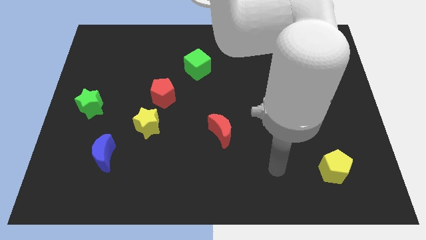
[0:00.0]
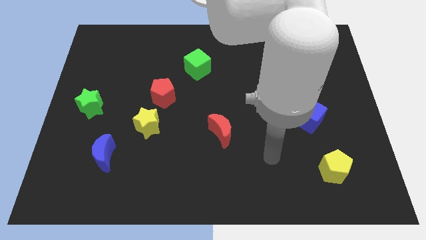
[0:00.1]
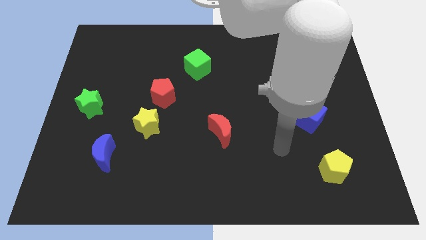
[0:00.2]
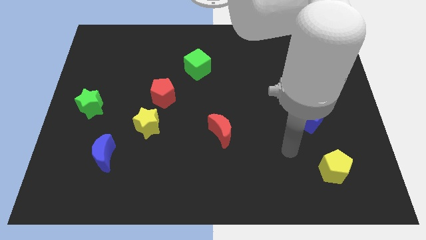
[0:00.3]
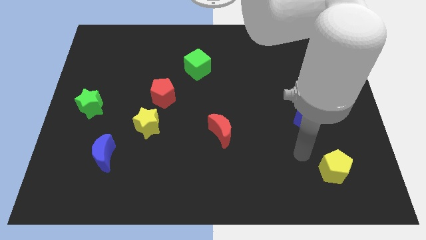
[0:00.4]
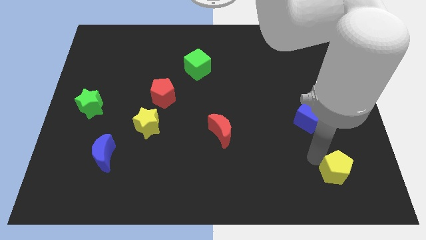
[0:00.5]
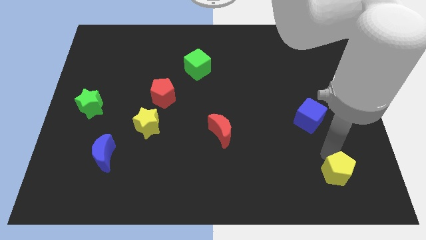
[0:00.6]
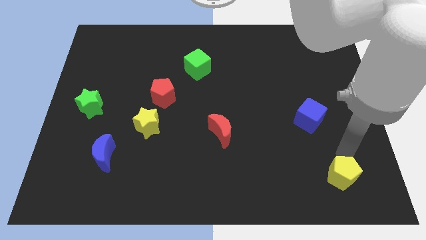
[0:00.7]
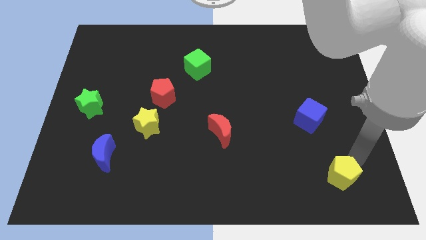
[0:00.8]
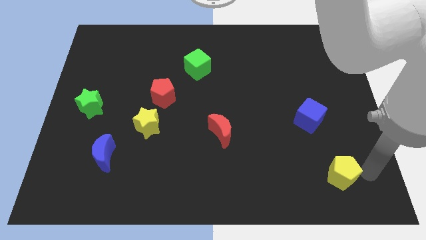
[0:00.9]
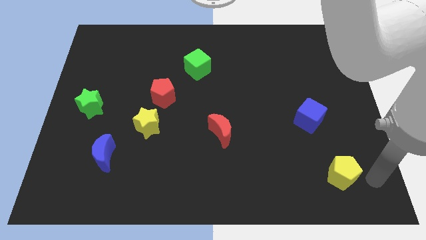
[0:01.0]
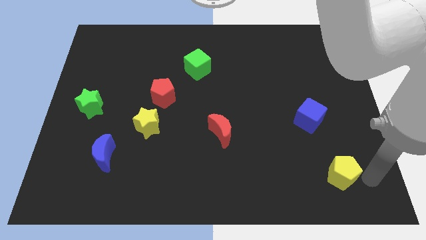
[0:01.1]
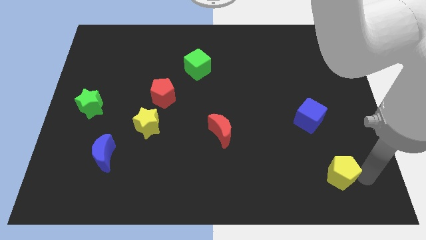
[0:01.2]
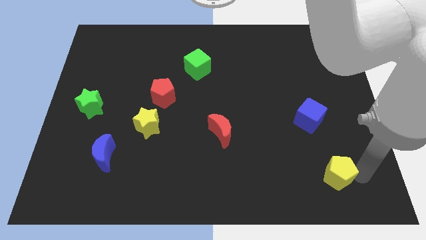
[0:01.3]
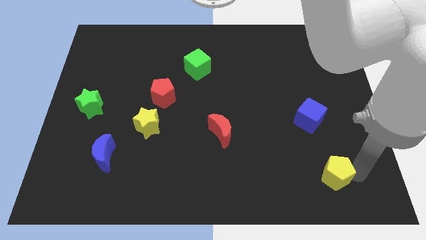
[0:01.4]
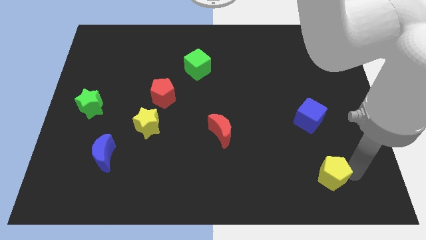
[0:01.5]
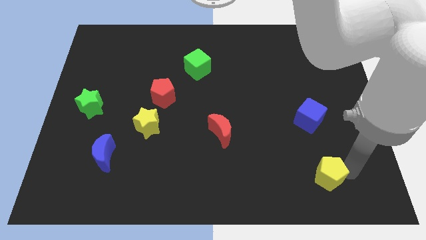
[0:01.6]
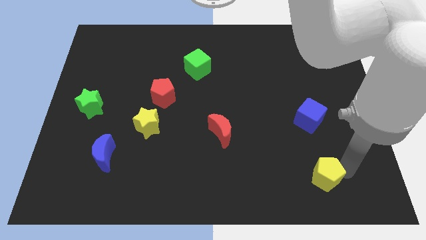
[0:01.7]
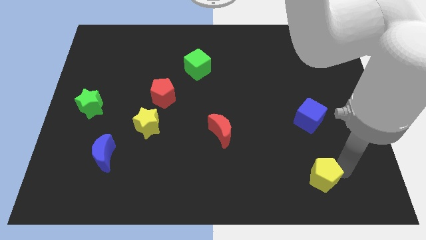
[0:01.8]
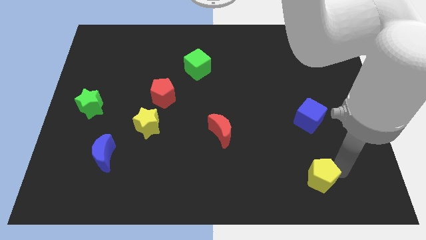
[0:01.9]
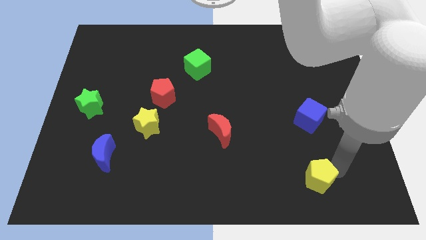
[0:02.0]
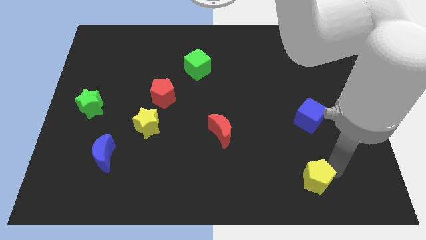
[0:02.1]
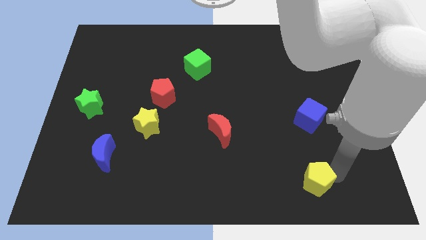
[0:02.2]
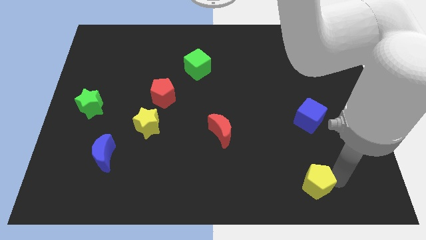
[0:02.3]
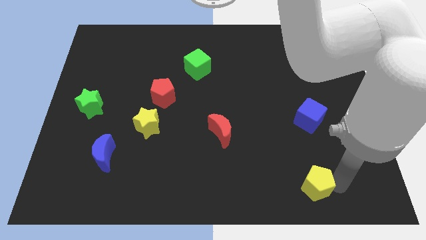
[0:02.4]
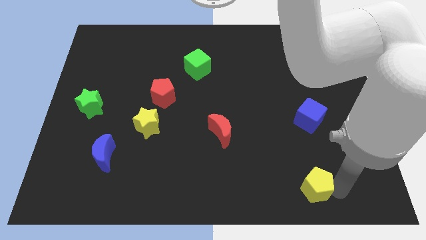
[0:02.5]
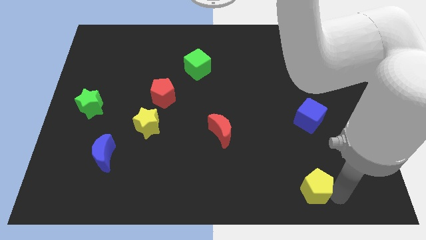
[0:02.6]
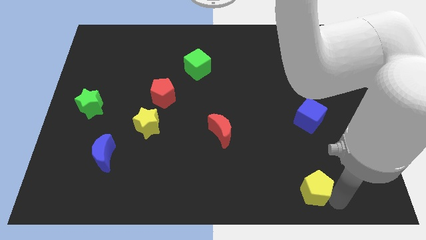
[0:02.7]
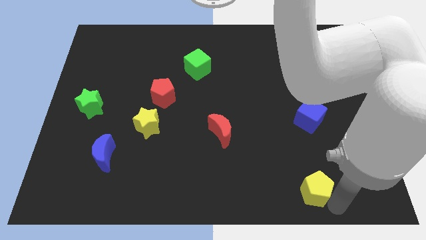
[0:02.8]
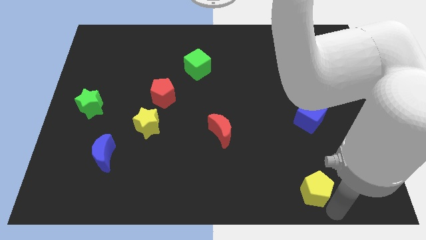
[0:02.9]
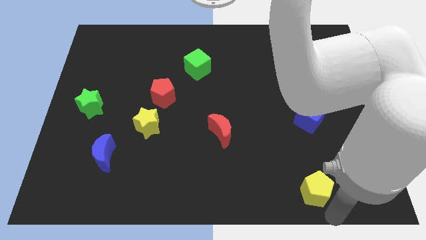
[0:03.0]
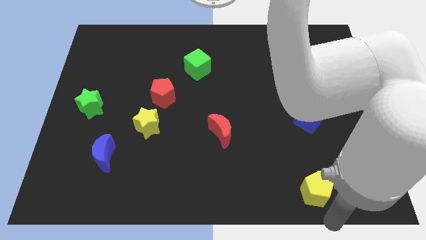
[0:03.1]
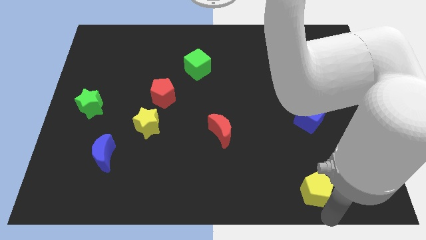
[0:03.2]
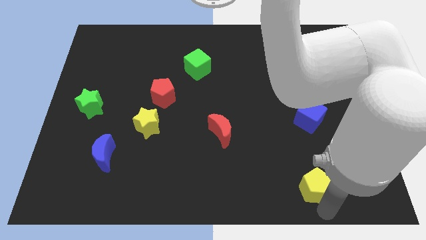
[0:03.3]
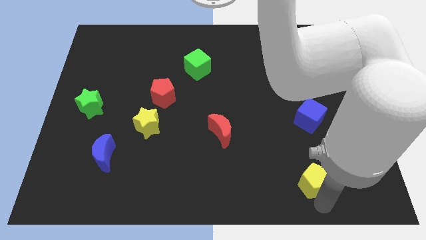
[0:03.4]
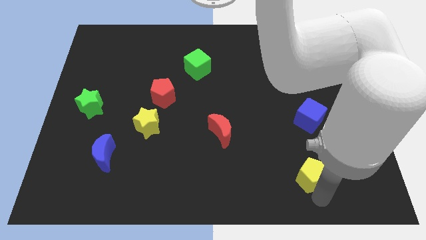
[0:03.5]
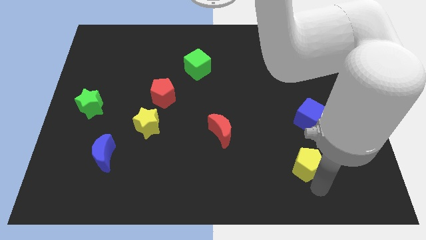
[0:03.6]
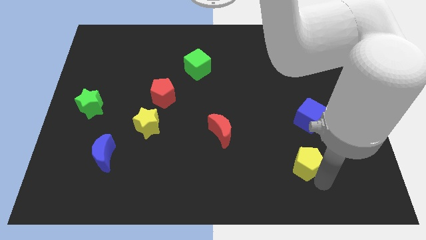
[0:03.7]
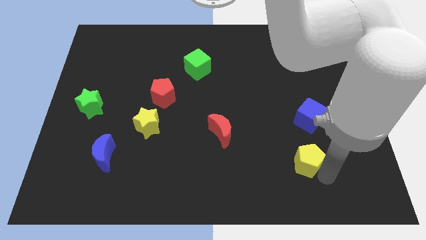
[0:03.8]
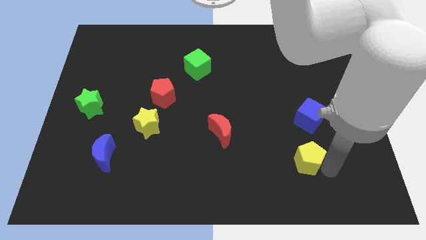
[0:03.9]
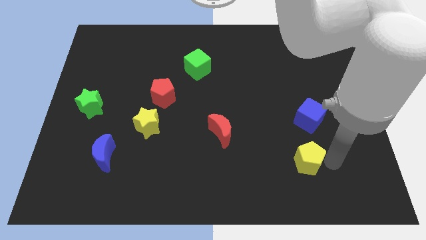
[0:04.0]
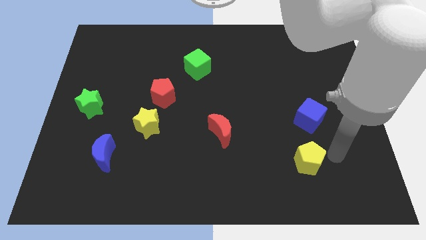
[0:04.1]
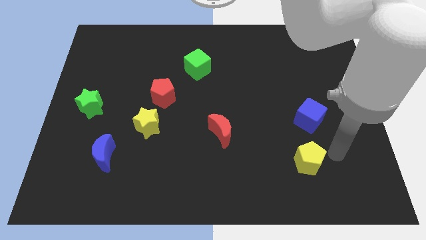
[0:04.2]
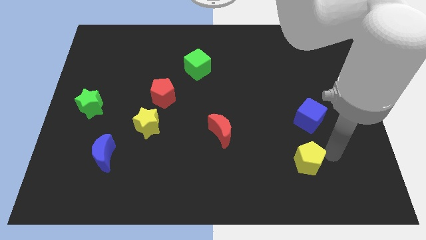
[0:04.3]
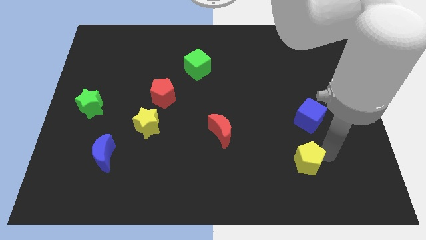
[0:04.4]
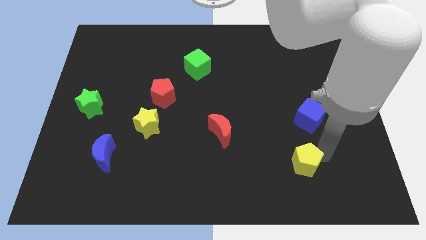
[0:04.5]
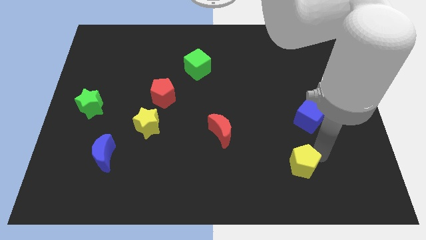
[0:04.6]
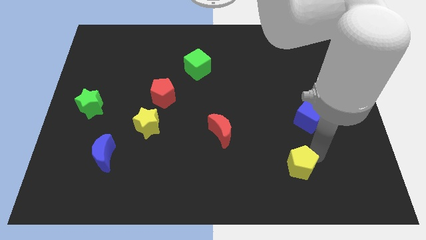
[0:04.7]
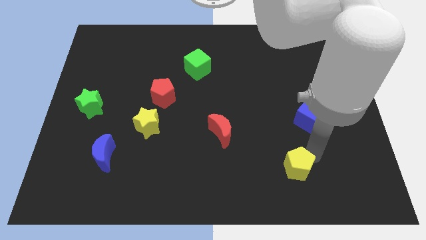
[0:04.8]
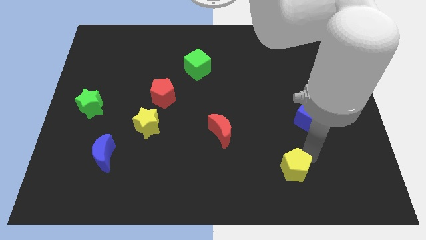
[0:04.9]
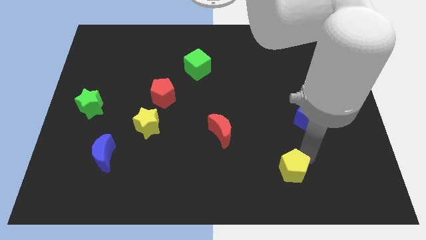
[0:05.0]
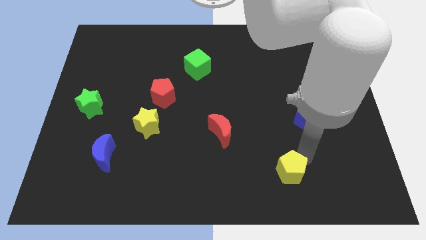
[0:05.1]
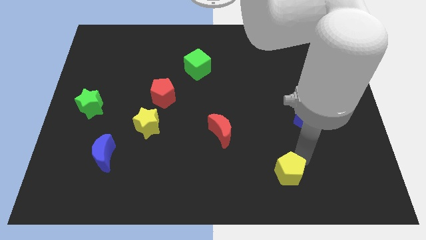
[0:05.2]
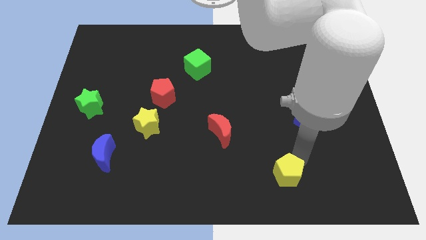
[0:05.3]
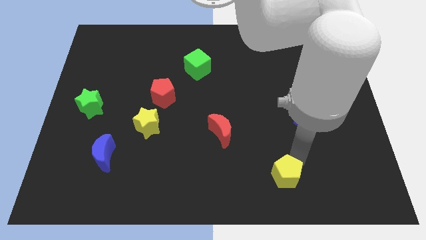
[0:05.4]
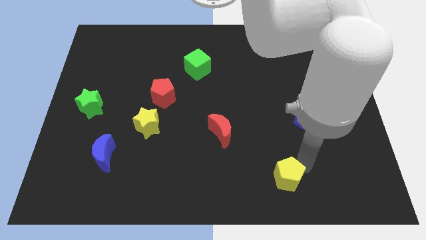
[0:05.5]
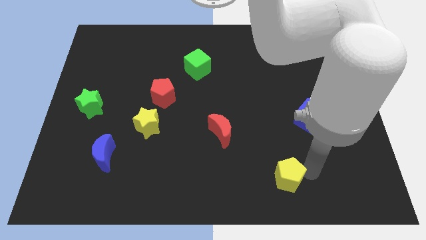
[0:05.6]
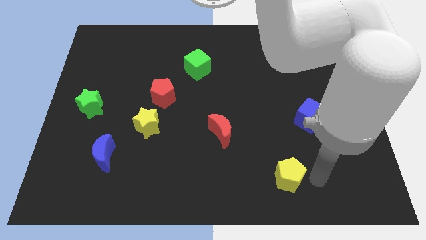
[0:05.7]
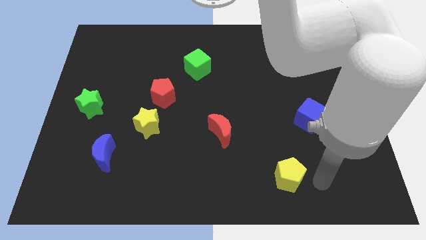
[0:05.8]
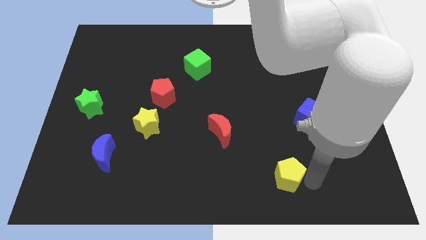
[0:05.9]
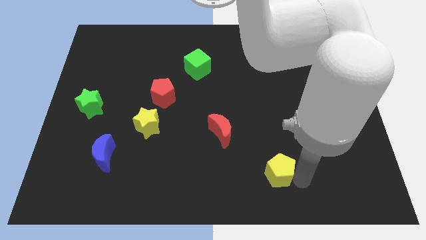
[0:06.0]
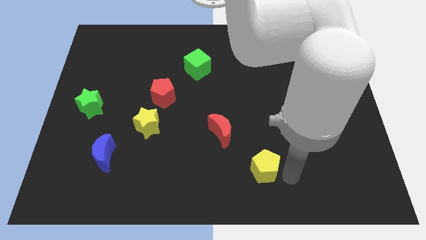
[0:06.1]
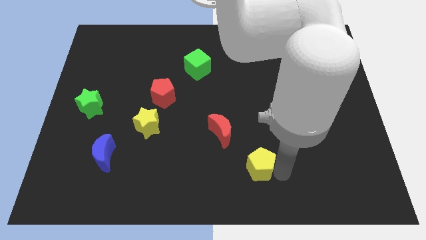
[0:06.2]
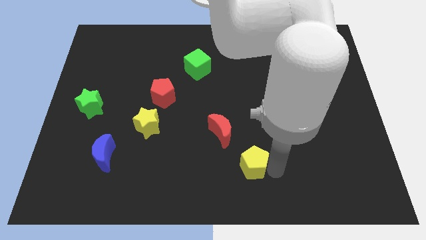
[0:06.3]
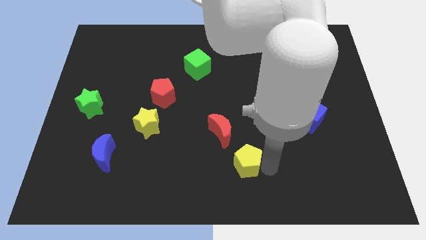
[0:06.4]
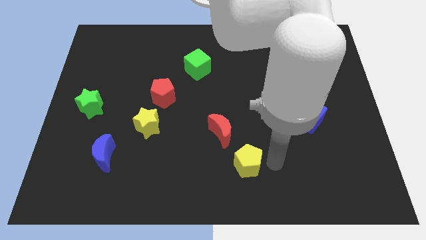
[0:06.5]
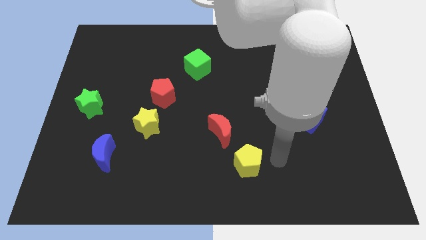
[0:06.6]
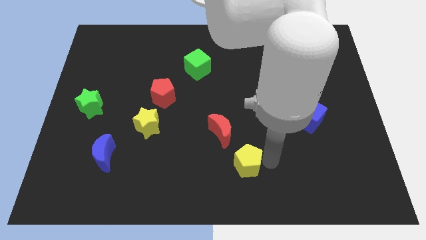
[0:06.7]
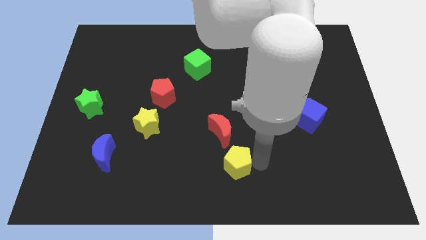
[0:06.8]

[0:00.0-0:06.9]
move the yellow pentagon left

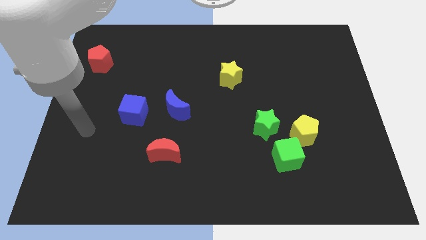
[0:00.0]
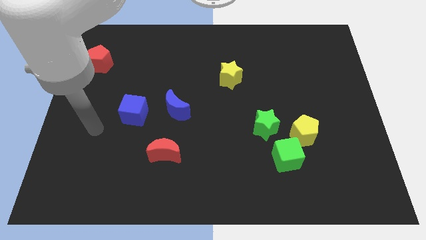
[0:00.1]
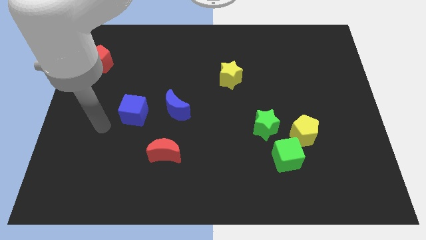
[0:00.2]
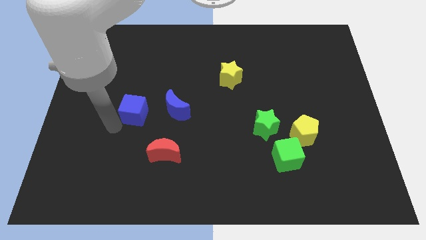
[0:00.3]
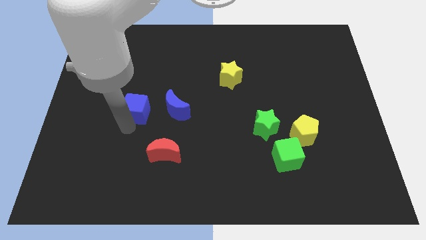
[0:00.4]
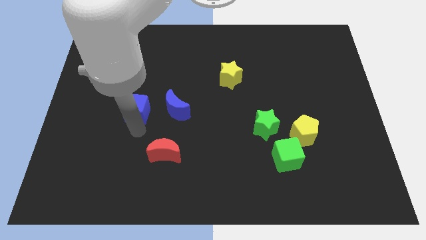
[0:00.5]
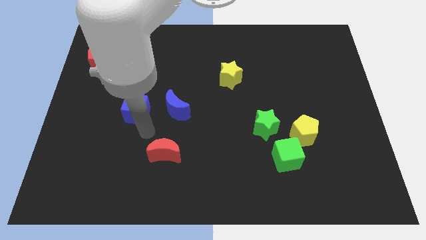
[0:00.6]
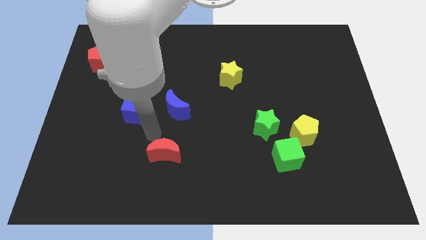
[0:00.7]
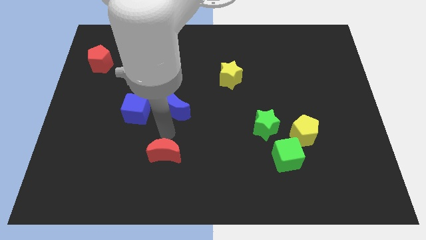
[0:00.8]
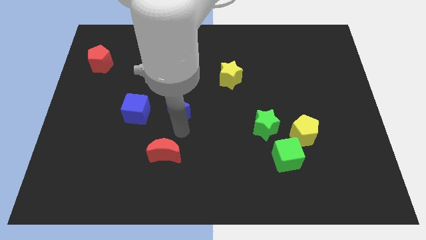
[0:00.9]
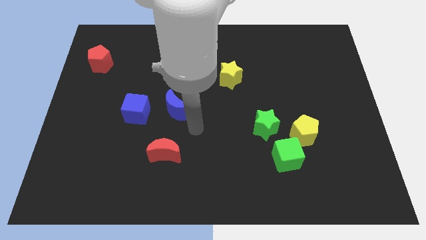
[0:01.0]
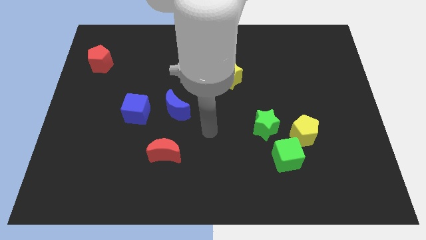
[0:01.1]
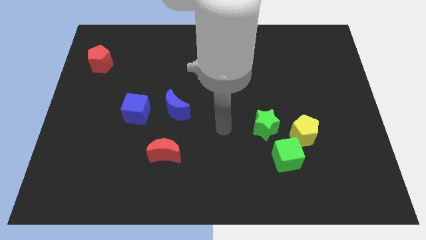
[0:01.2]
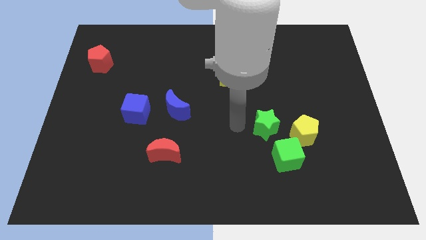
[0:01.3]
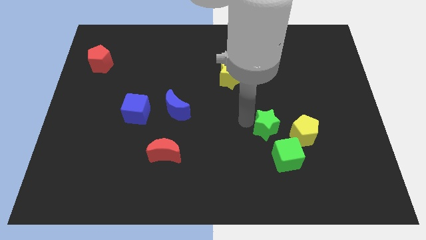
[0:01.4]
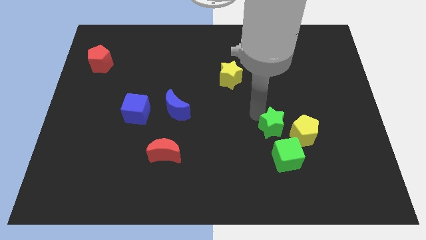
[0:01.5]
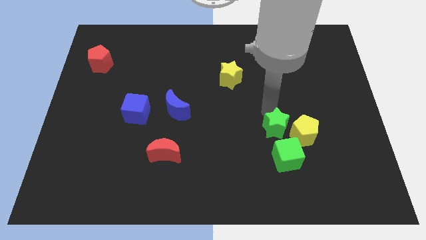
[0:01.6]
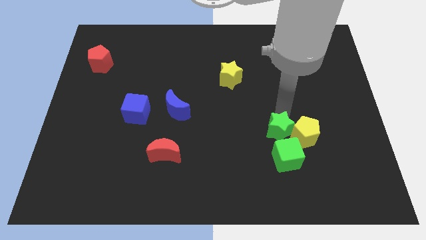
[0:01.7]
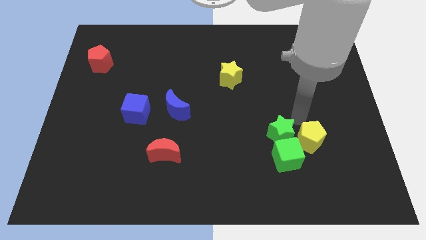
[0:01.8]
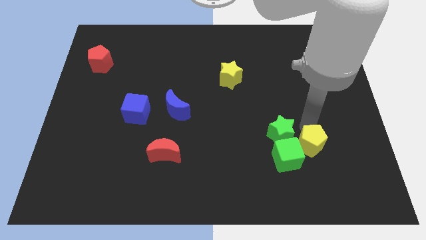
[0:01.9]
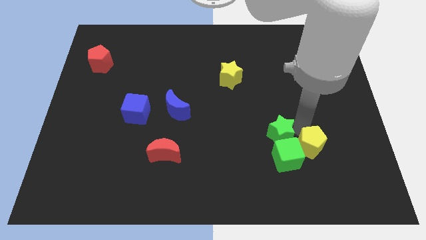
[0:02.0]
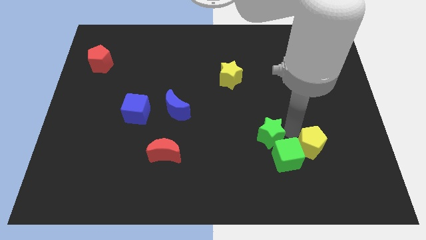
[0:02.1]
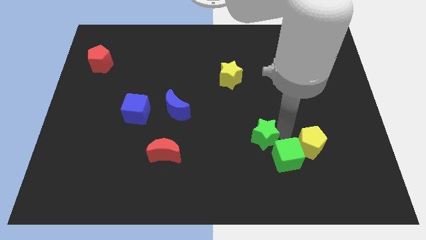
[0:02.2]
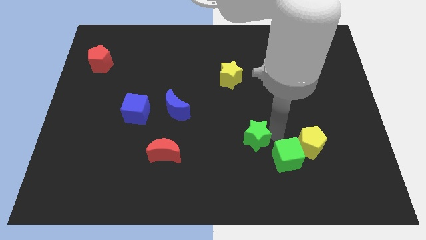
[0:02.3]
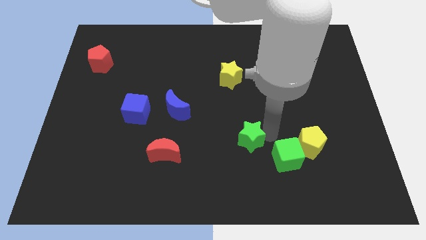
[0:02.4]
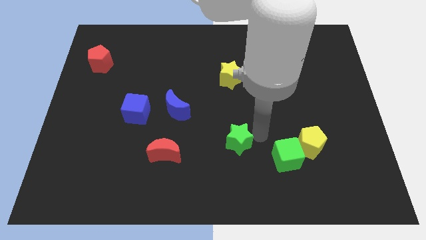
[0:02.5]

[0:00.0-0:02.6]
move the green star a bit down and to the left
